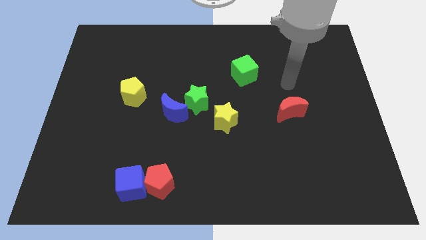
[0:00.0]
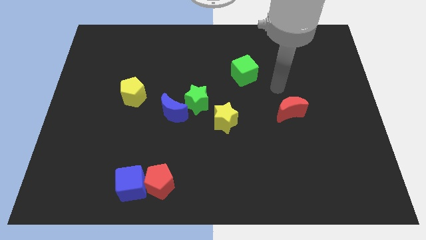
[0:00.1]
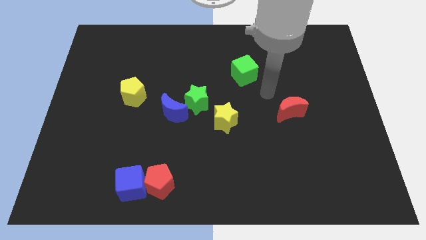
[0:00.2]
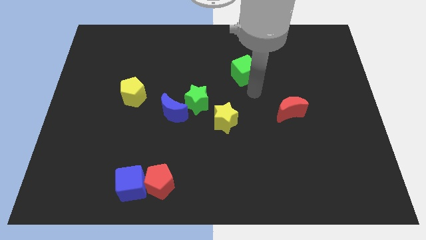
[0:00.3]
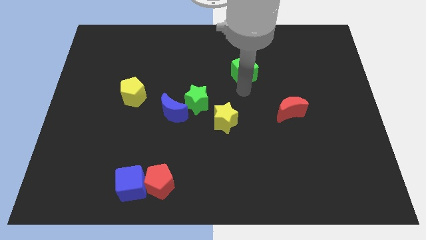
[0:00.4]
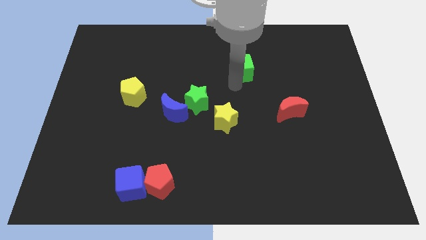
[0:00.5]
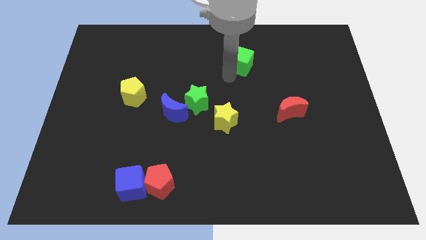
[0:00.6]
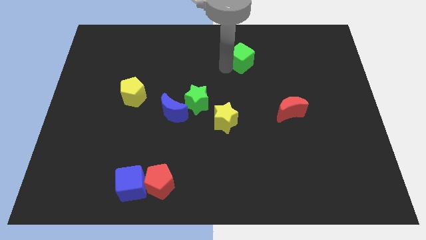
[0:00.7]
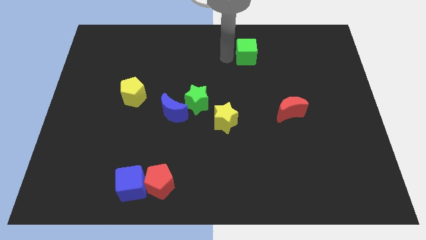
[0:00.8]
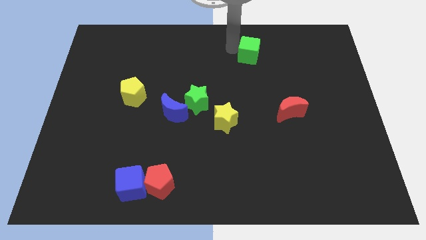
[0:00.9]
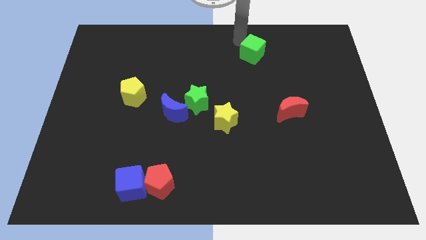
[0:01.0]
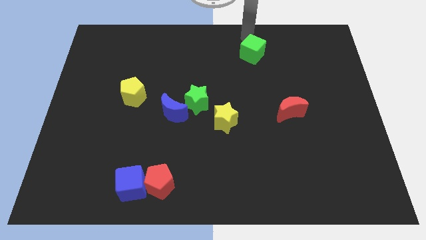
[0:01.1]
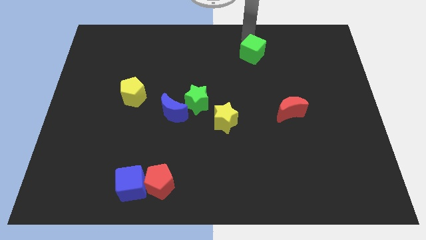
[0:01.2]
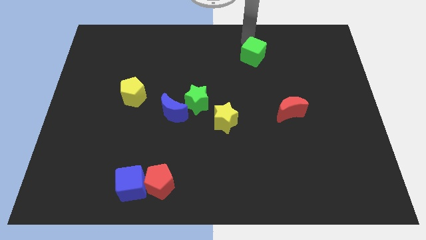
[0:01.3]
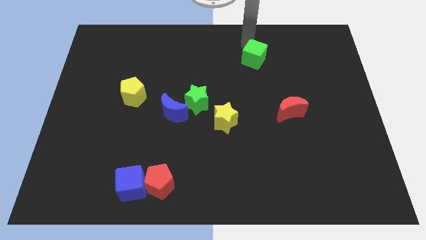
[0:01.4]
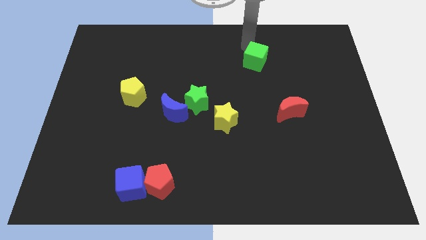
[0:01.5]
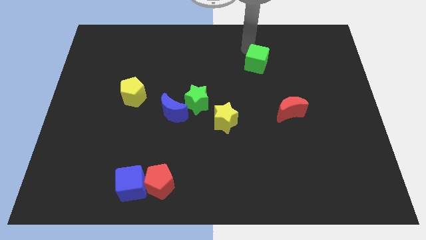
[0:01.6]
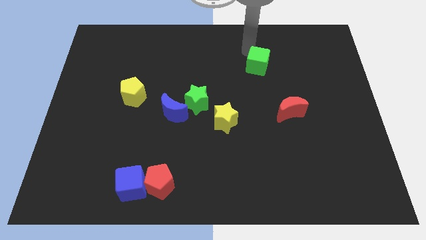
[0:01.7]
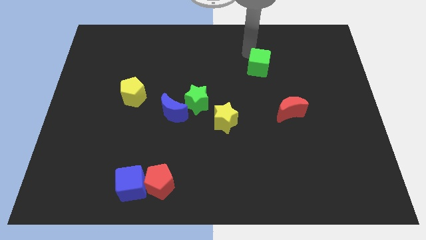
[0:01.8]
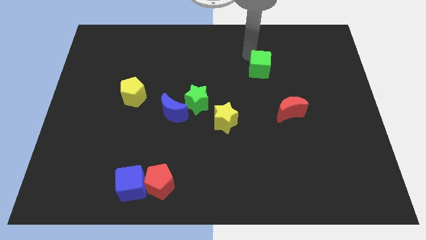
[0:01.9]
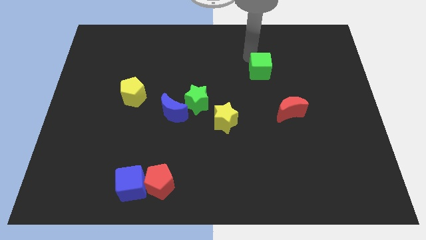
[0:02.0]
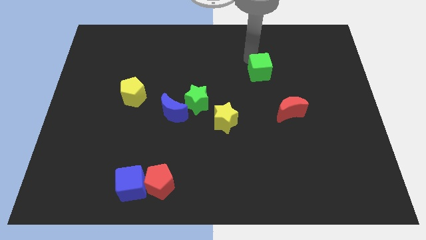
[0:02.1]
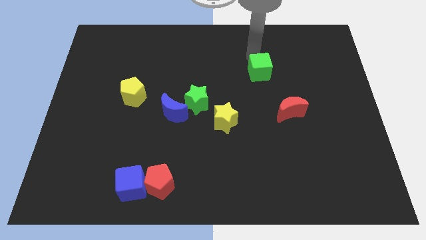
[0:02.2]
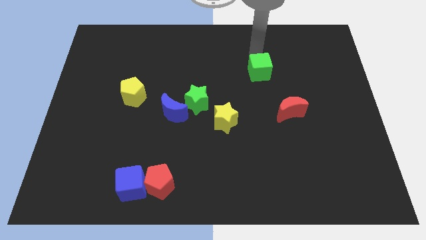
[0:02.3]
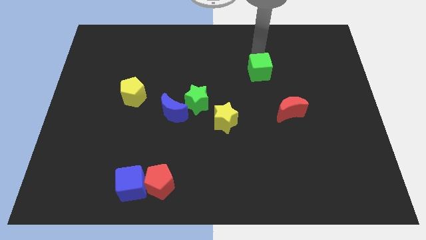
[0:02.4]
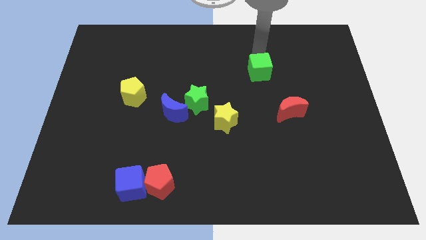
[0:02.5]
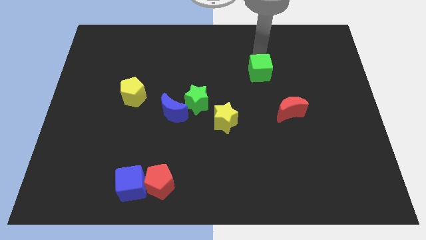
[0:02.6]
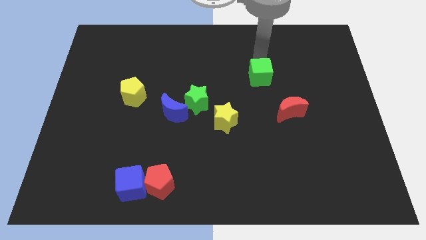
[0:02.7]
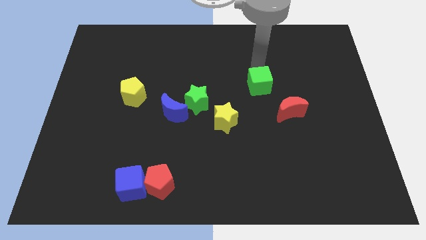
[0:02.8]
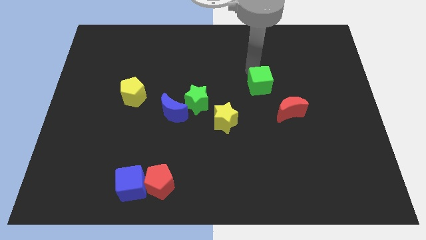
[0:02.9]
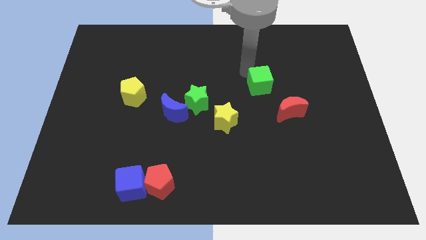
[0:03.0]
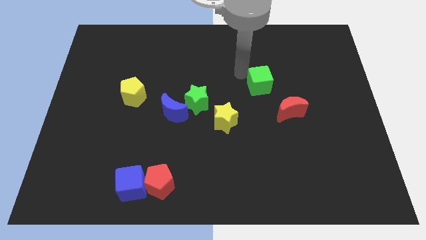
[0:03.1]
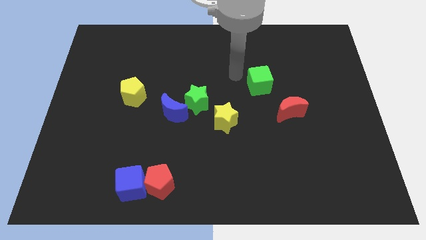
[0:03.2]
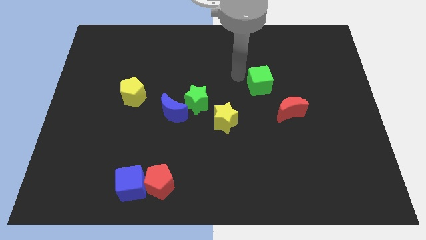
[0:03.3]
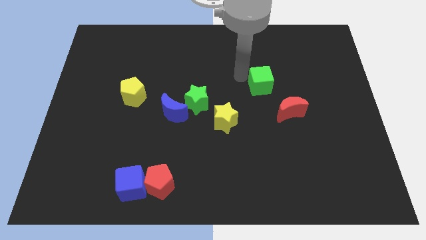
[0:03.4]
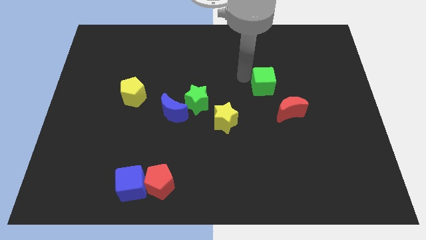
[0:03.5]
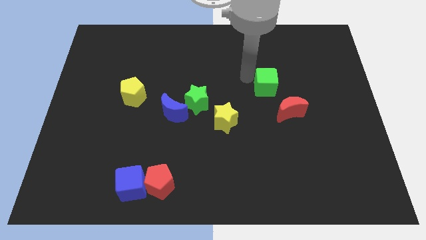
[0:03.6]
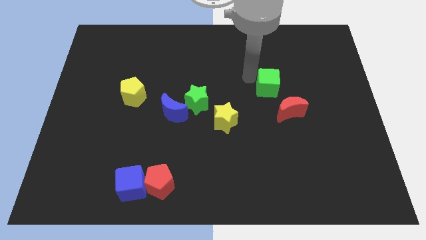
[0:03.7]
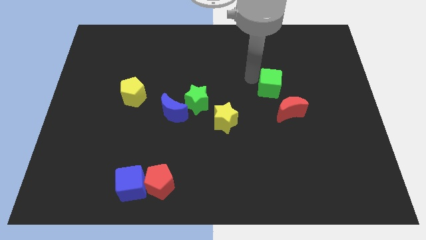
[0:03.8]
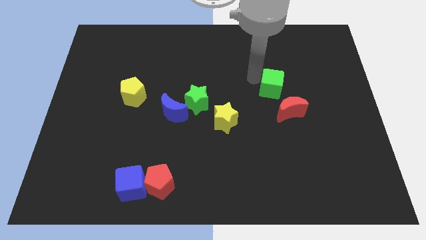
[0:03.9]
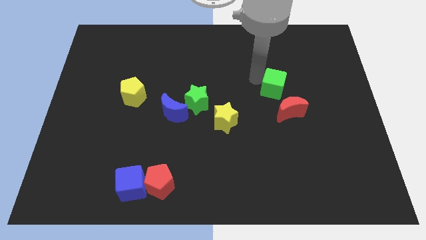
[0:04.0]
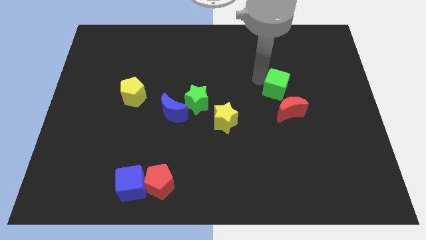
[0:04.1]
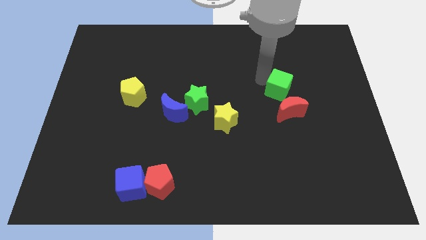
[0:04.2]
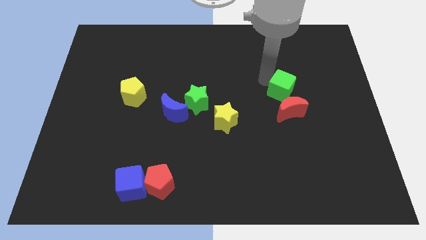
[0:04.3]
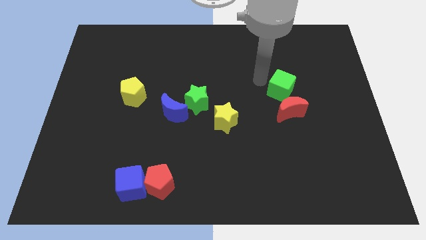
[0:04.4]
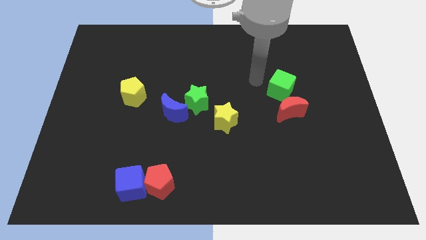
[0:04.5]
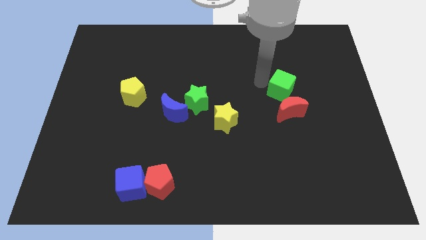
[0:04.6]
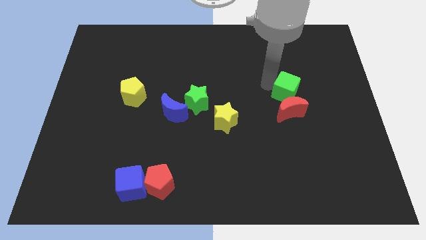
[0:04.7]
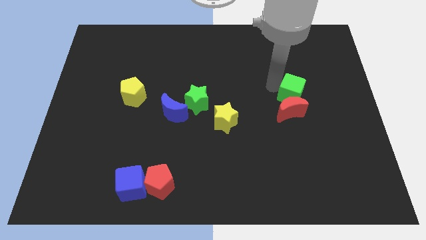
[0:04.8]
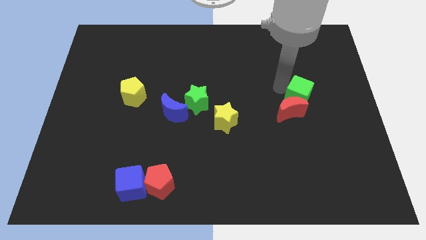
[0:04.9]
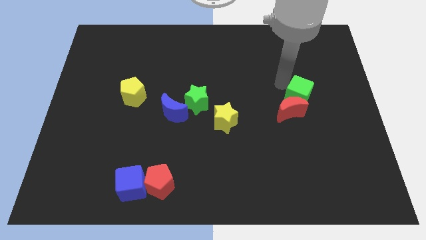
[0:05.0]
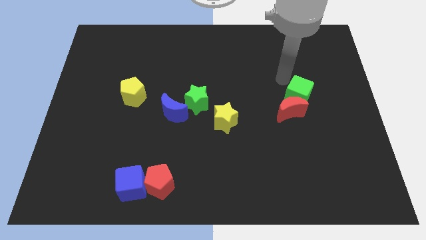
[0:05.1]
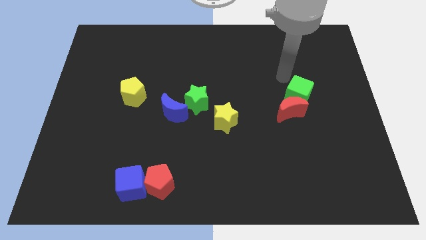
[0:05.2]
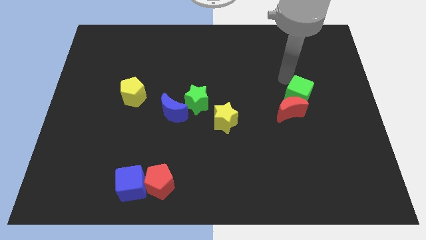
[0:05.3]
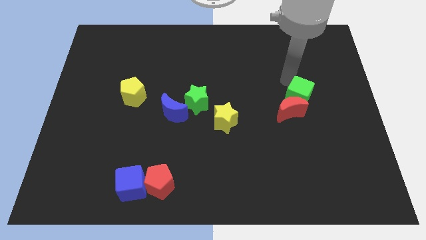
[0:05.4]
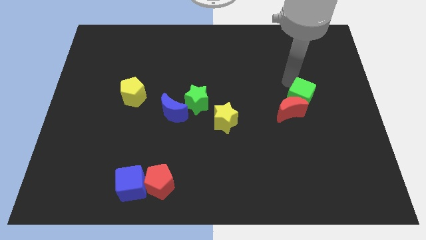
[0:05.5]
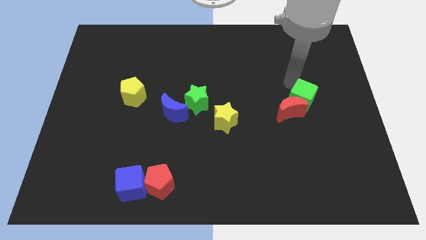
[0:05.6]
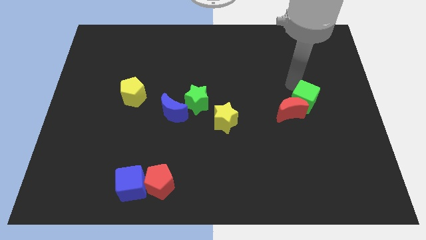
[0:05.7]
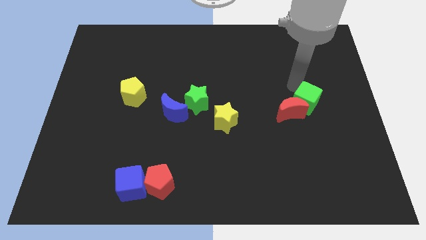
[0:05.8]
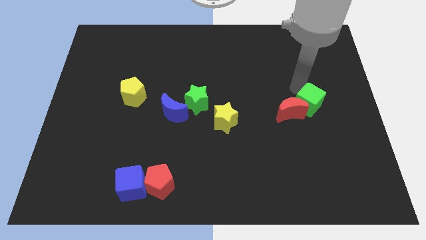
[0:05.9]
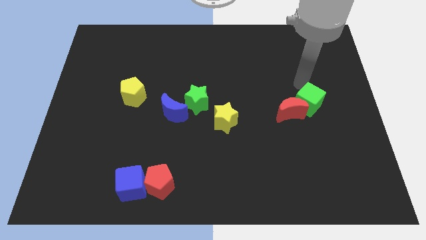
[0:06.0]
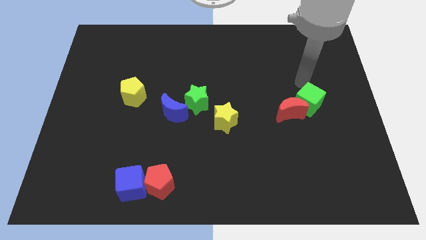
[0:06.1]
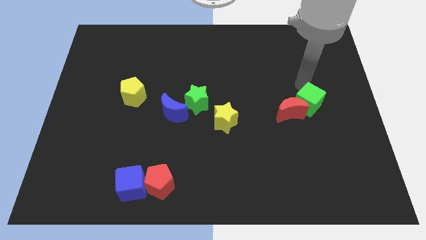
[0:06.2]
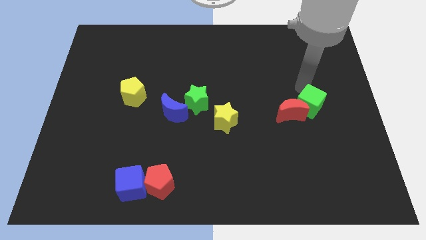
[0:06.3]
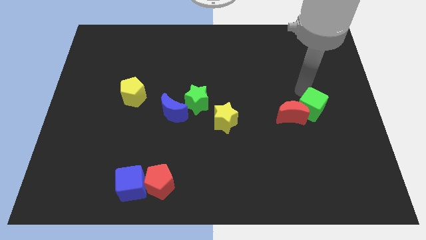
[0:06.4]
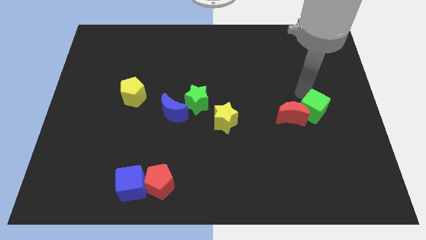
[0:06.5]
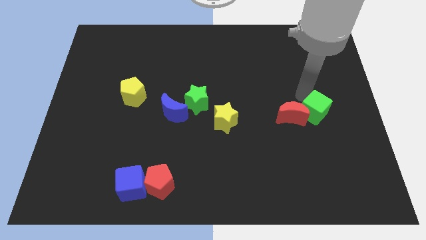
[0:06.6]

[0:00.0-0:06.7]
put the green cube to the bottom right of the red moon

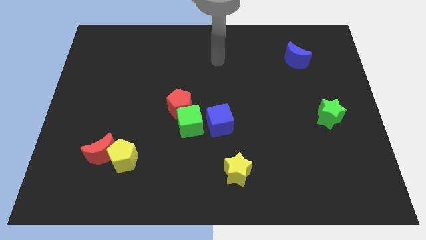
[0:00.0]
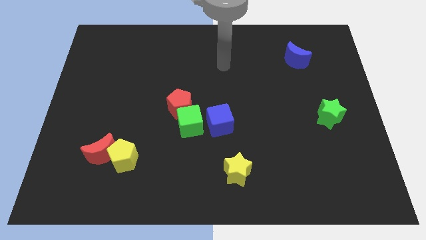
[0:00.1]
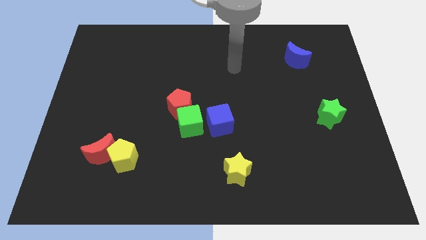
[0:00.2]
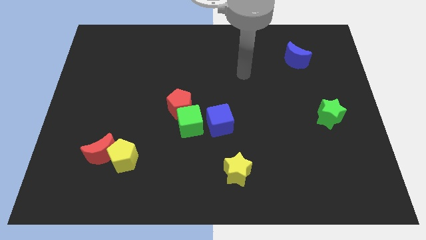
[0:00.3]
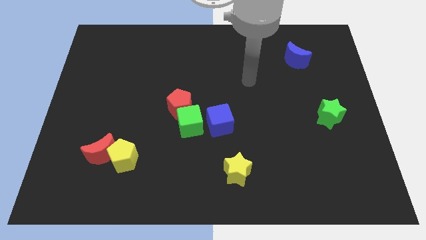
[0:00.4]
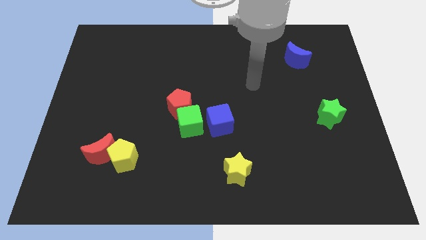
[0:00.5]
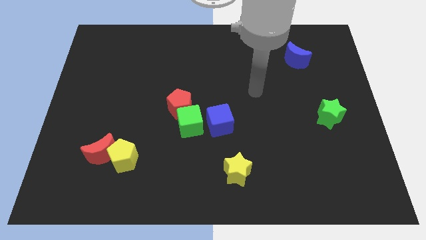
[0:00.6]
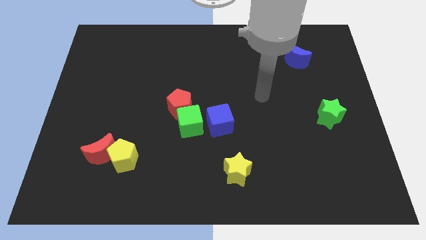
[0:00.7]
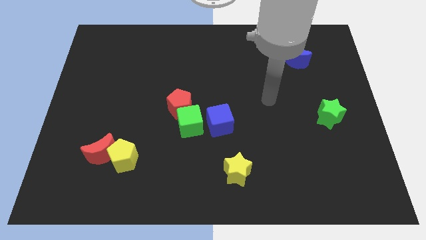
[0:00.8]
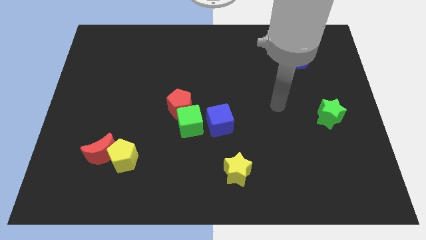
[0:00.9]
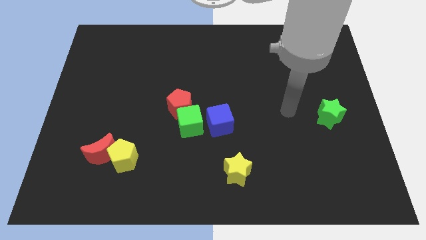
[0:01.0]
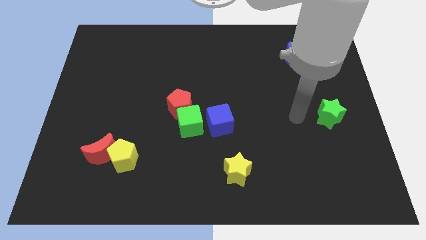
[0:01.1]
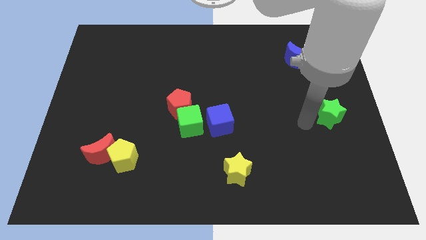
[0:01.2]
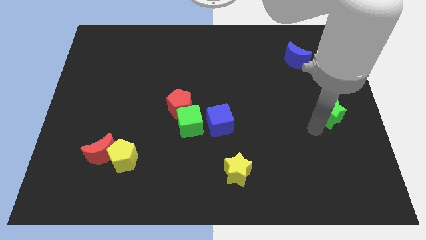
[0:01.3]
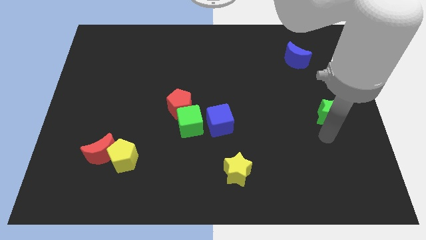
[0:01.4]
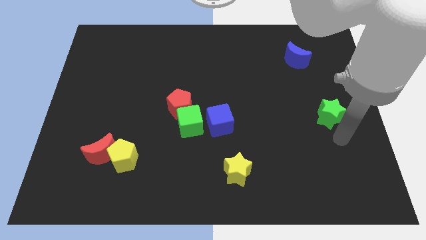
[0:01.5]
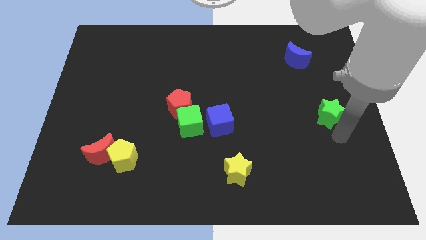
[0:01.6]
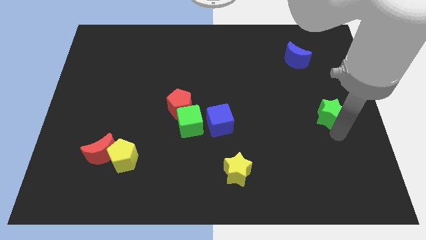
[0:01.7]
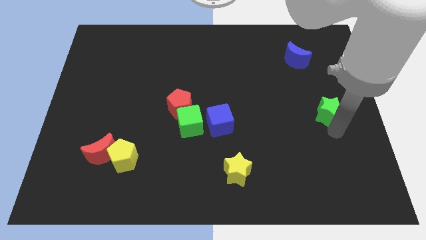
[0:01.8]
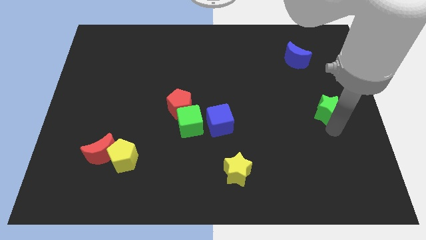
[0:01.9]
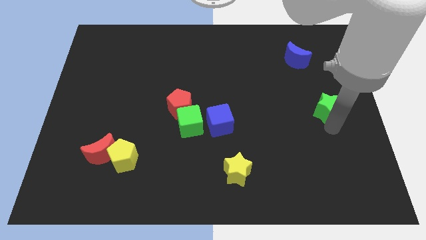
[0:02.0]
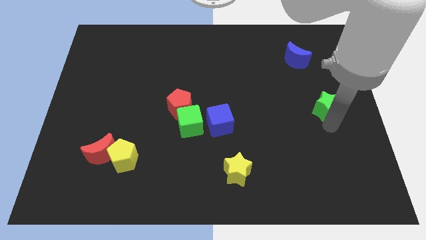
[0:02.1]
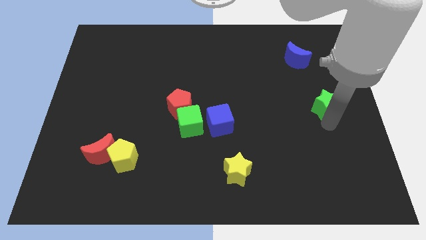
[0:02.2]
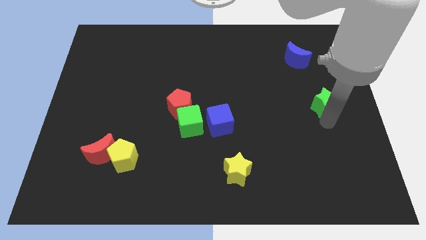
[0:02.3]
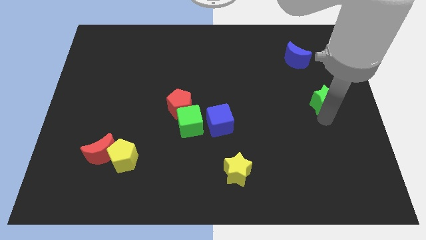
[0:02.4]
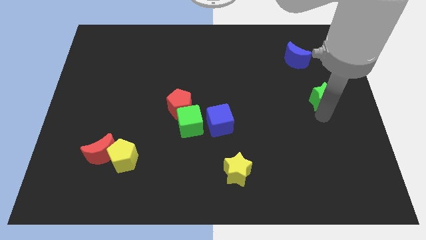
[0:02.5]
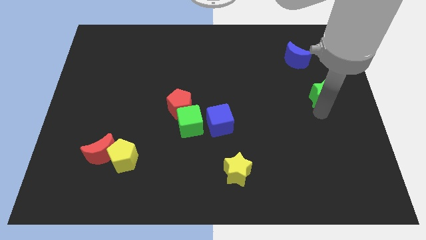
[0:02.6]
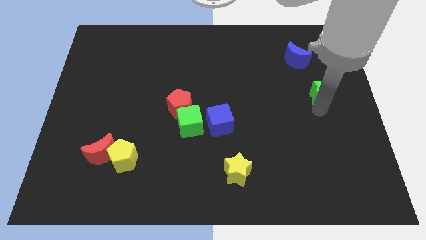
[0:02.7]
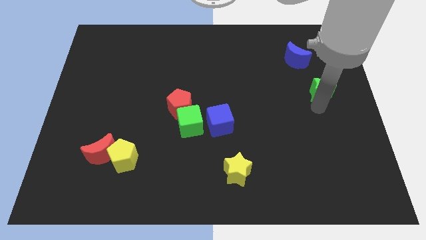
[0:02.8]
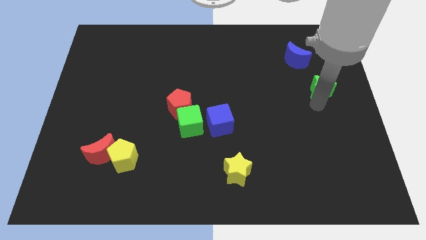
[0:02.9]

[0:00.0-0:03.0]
move the green star to the bottom right of the blue moon
